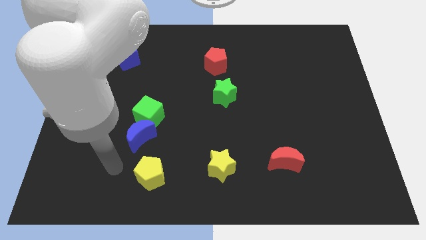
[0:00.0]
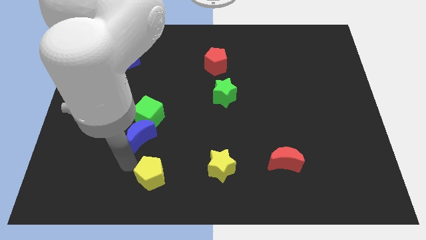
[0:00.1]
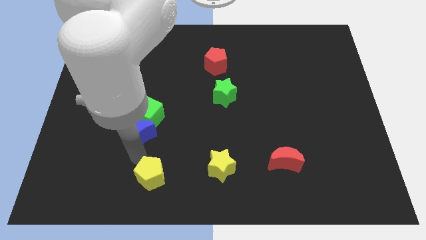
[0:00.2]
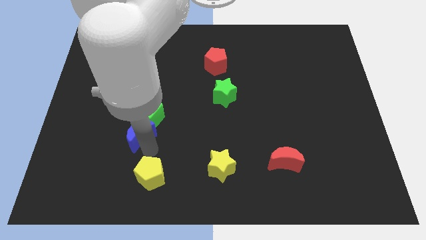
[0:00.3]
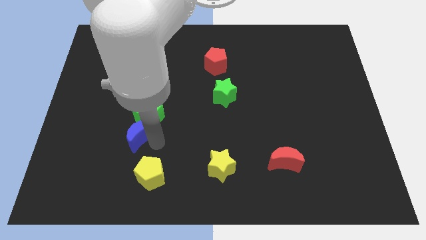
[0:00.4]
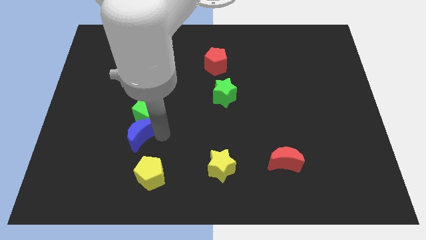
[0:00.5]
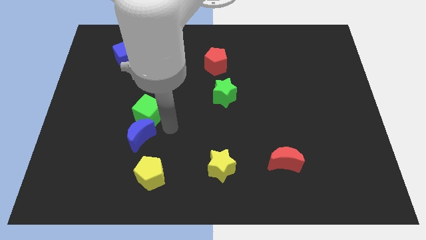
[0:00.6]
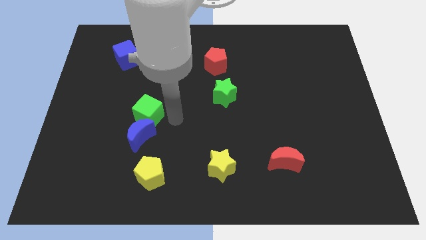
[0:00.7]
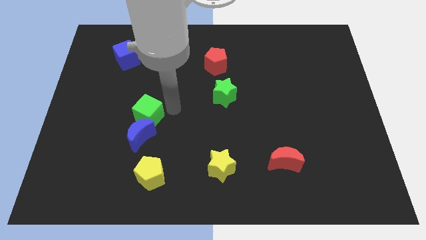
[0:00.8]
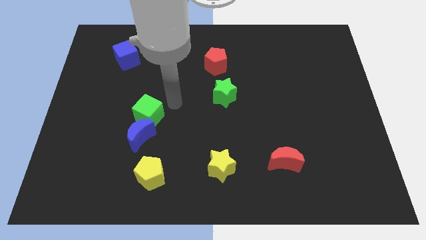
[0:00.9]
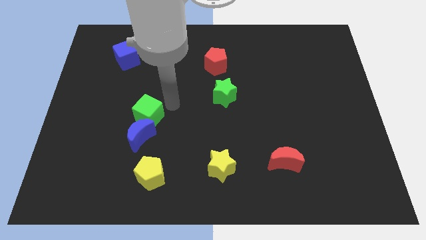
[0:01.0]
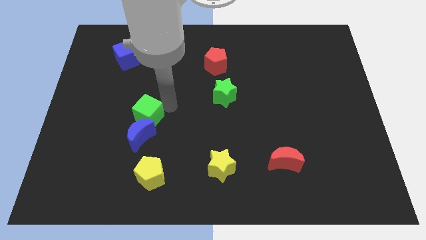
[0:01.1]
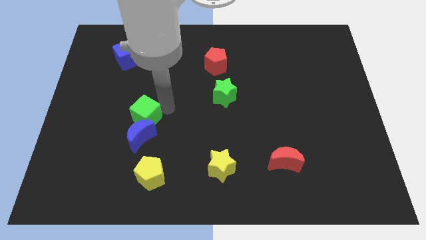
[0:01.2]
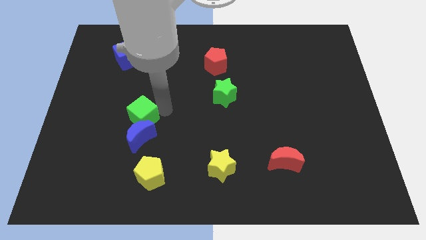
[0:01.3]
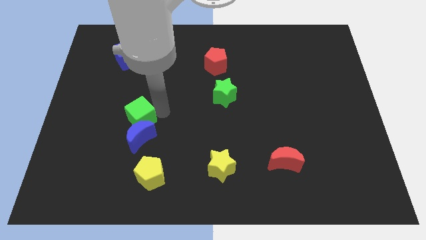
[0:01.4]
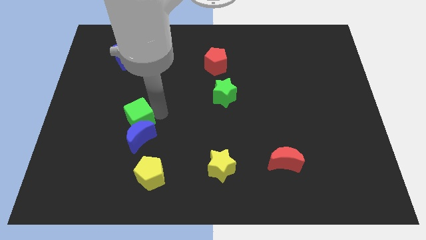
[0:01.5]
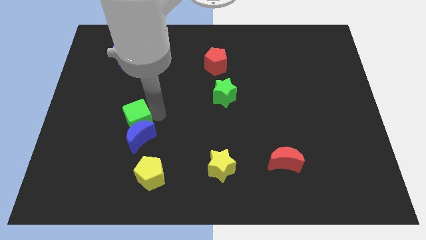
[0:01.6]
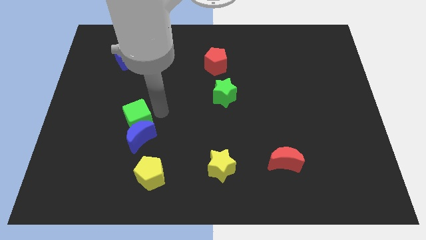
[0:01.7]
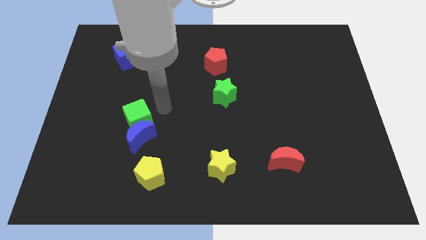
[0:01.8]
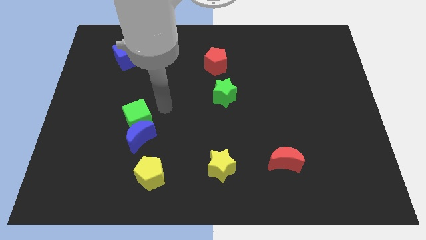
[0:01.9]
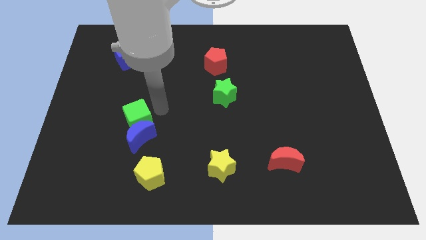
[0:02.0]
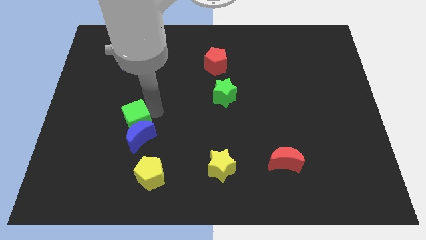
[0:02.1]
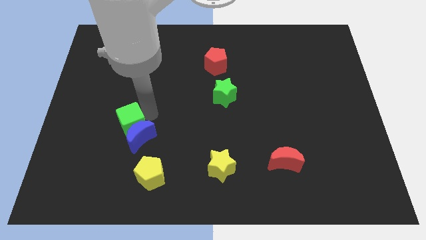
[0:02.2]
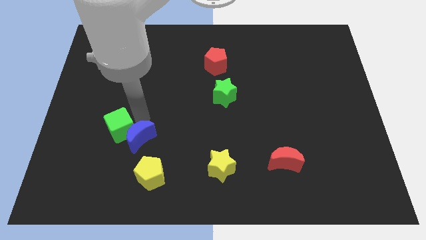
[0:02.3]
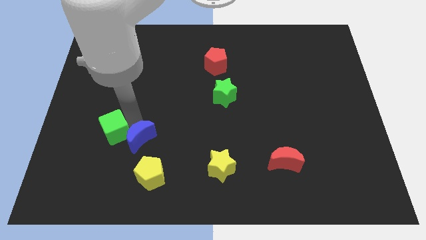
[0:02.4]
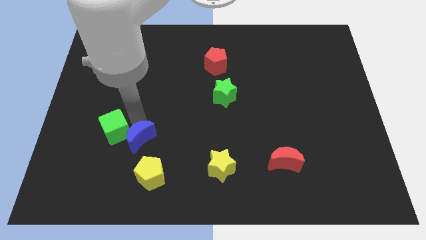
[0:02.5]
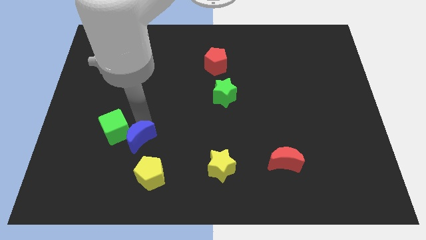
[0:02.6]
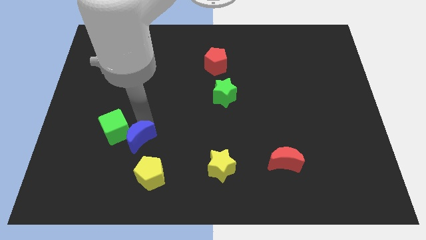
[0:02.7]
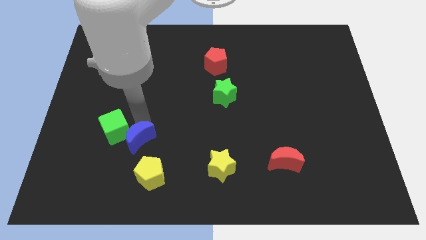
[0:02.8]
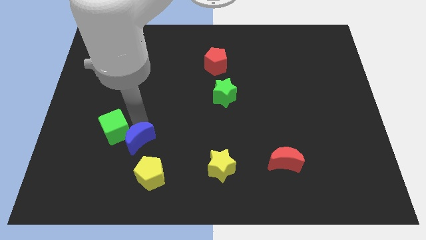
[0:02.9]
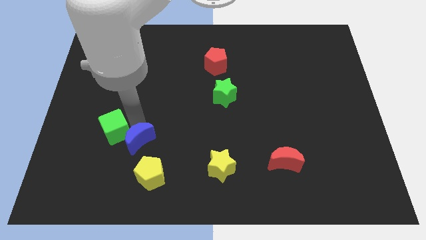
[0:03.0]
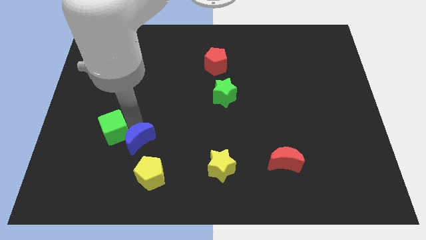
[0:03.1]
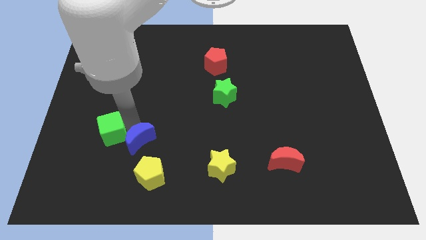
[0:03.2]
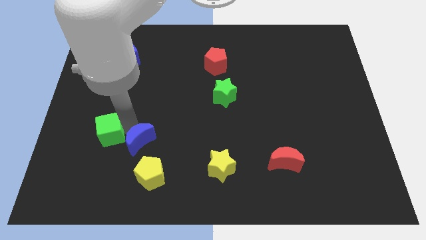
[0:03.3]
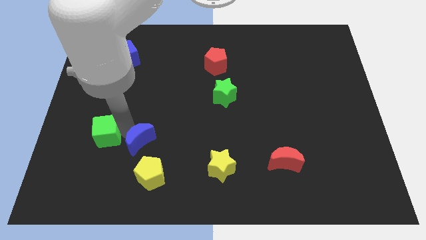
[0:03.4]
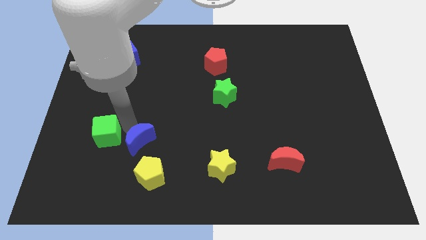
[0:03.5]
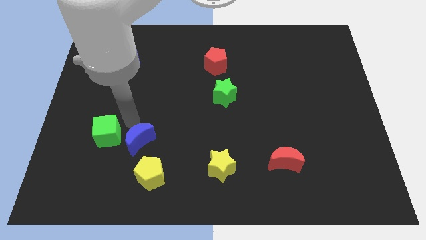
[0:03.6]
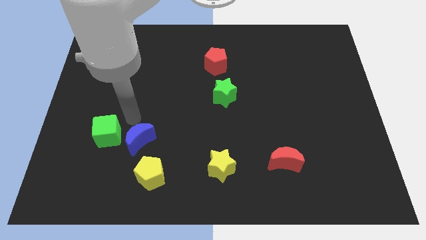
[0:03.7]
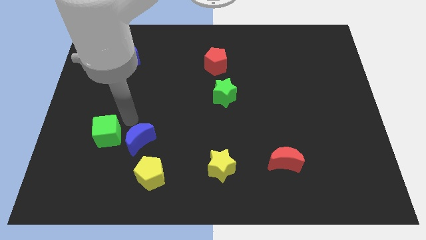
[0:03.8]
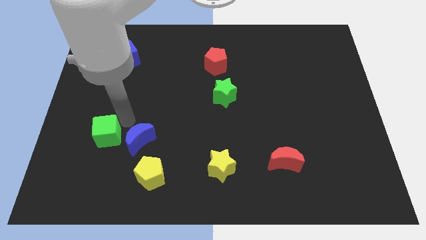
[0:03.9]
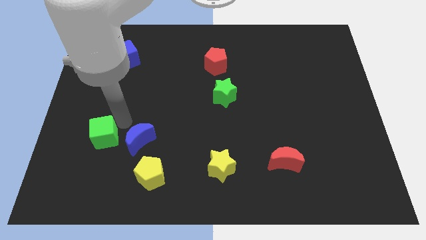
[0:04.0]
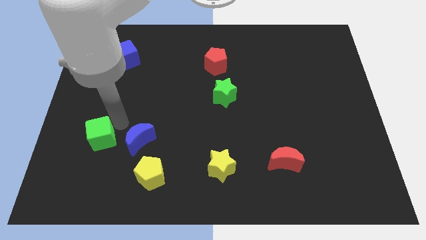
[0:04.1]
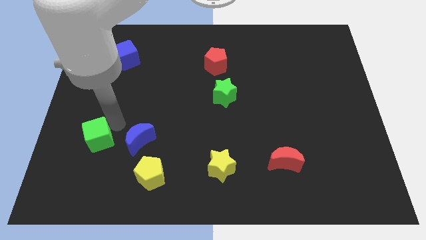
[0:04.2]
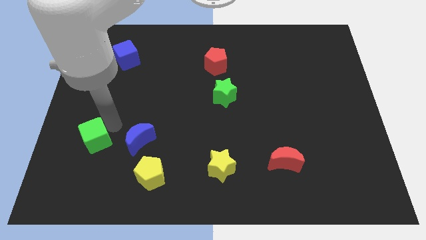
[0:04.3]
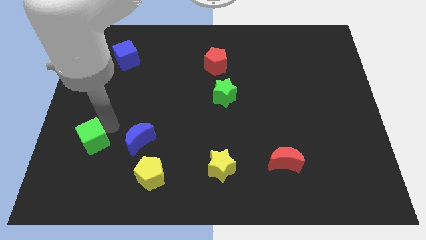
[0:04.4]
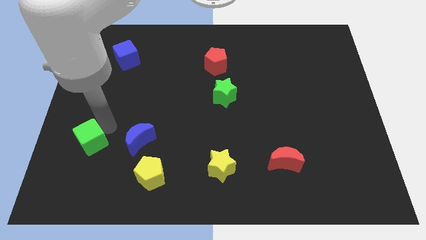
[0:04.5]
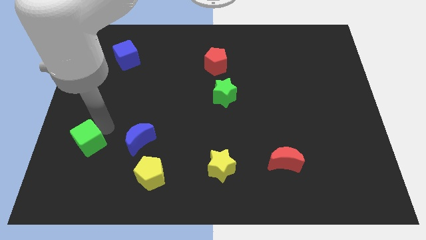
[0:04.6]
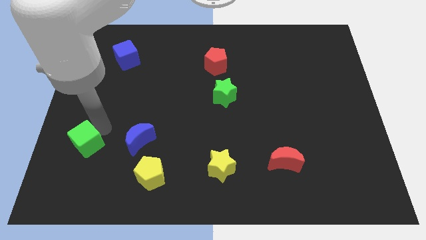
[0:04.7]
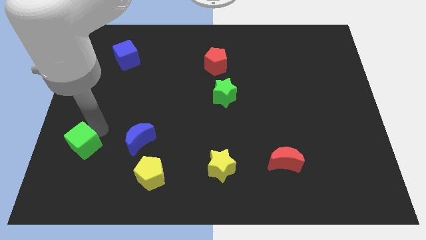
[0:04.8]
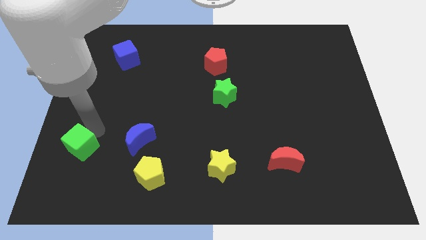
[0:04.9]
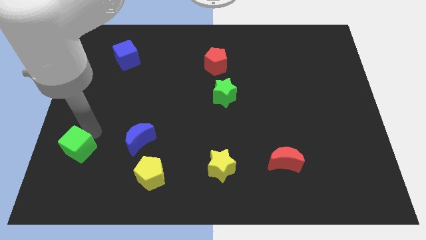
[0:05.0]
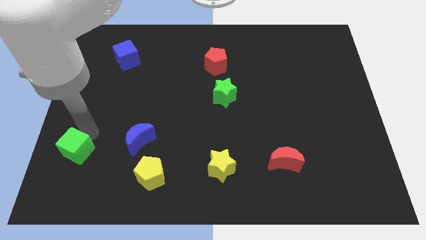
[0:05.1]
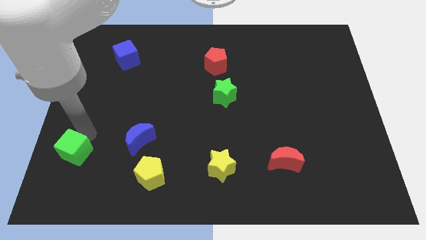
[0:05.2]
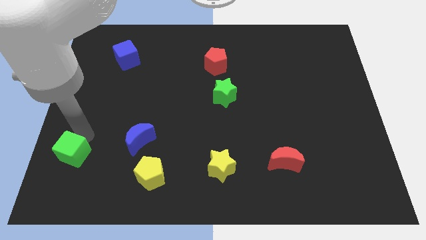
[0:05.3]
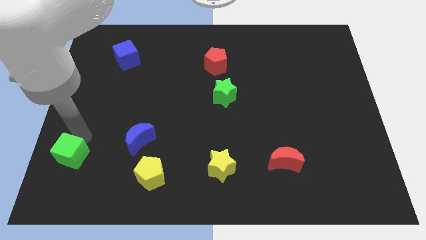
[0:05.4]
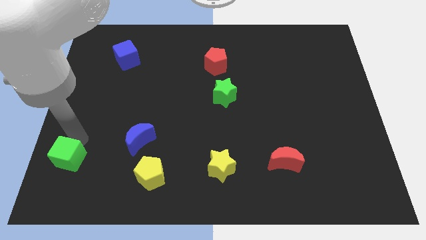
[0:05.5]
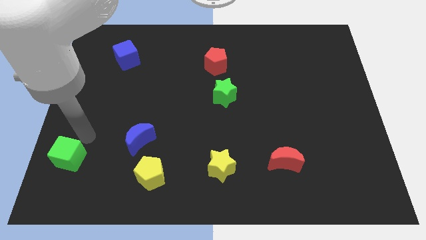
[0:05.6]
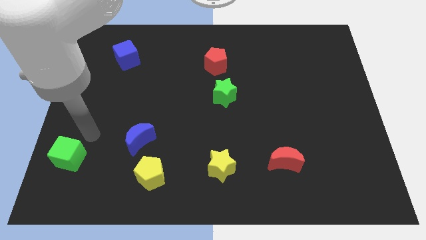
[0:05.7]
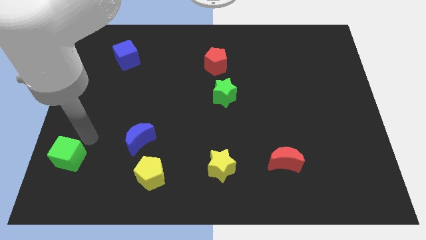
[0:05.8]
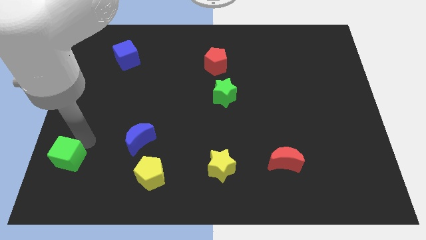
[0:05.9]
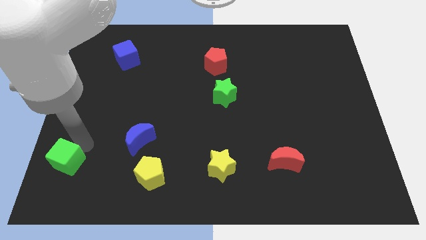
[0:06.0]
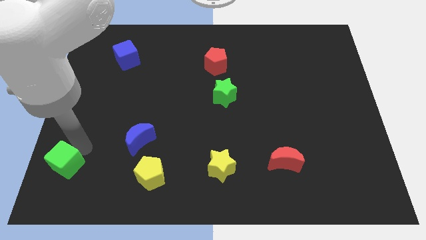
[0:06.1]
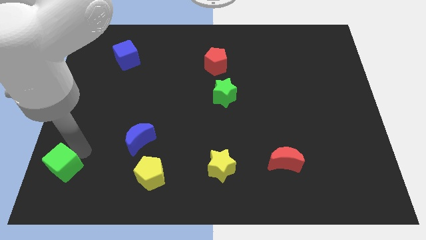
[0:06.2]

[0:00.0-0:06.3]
slide the green cube to the bottom left
